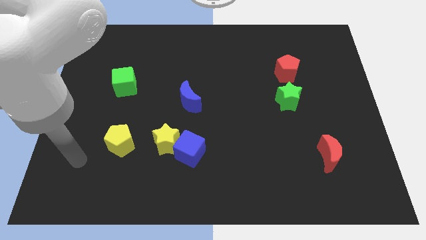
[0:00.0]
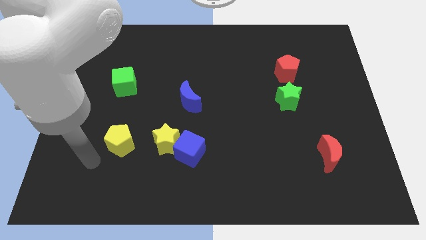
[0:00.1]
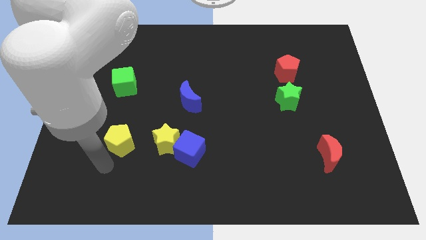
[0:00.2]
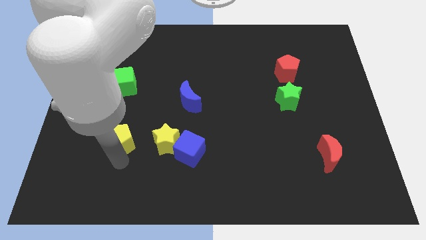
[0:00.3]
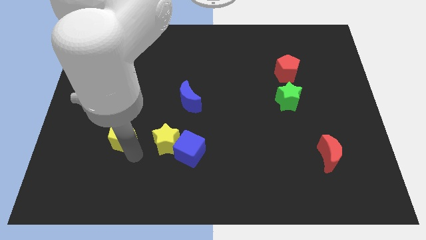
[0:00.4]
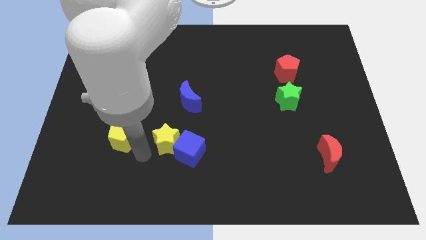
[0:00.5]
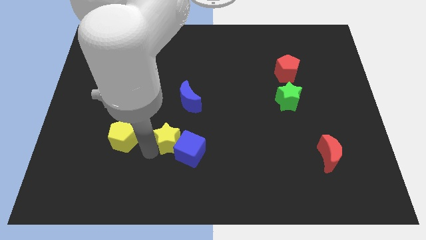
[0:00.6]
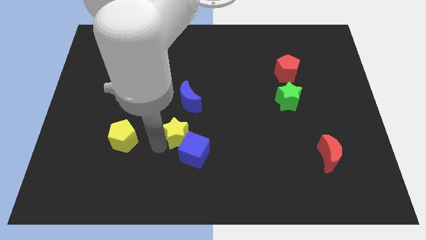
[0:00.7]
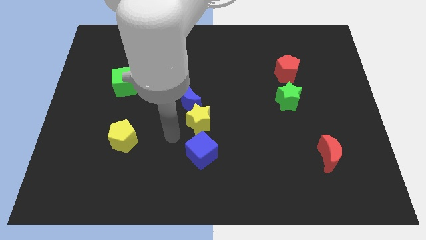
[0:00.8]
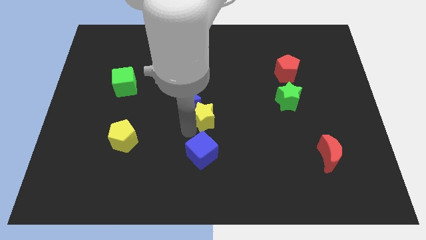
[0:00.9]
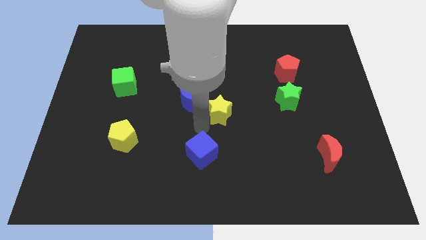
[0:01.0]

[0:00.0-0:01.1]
separate the blue cube from the yellow star

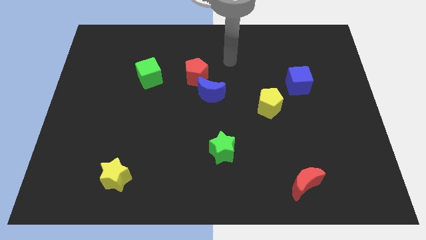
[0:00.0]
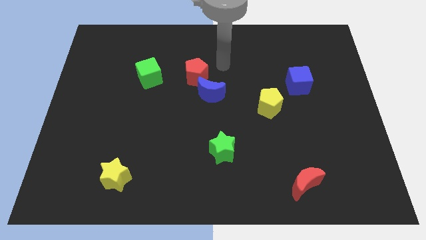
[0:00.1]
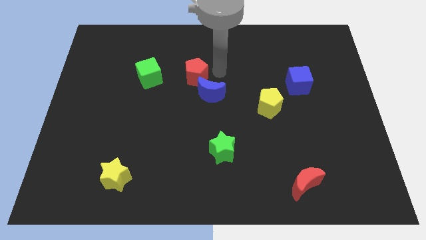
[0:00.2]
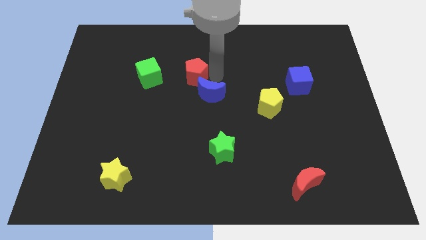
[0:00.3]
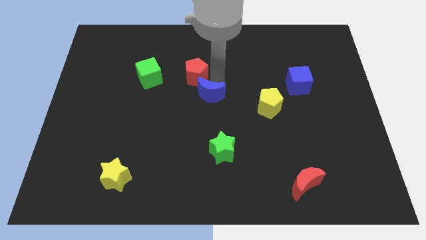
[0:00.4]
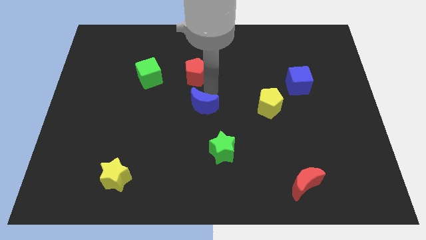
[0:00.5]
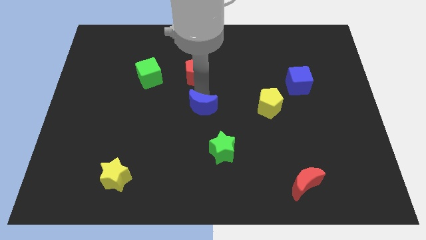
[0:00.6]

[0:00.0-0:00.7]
separate the red pentagon from the blue moon

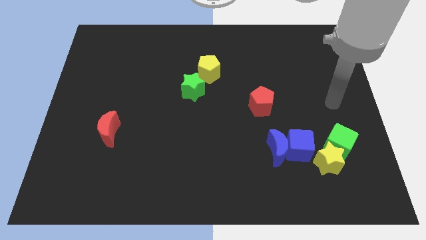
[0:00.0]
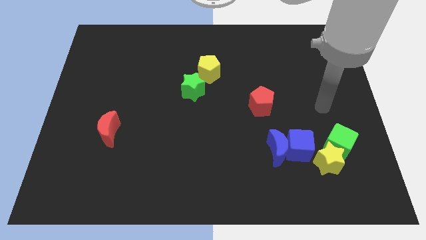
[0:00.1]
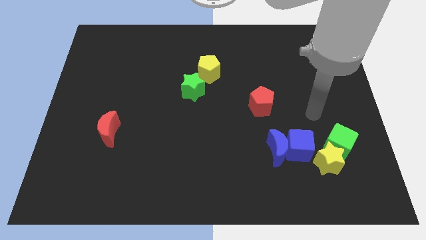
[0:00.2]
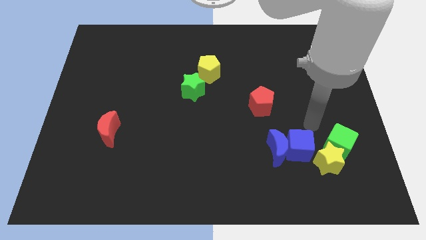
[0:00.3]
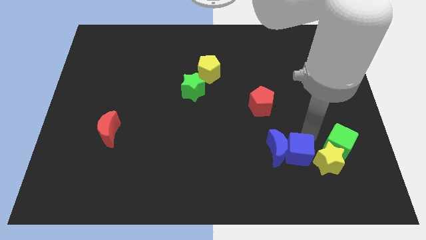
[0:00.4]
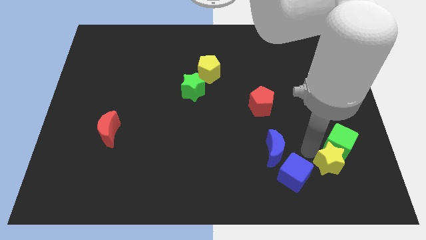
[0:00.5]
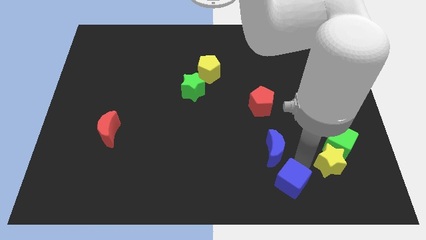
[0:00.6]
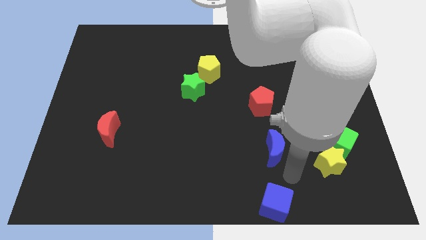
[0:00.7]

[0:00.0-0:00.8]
move the blue moon away from the blue cube

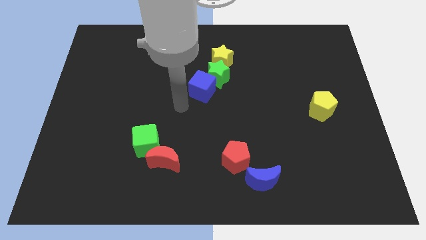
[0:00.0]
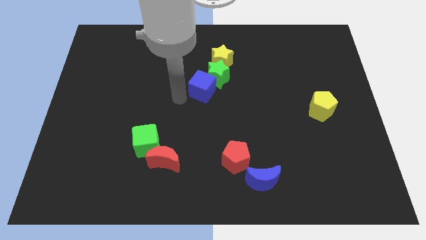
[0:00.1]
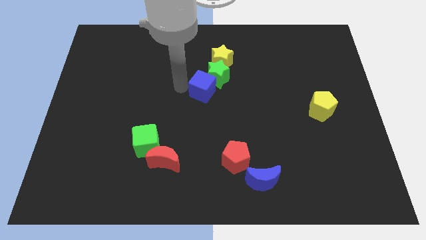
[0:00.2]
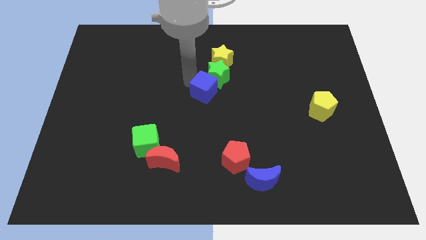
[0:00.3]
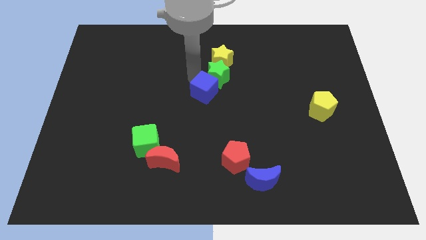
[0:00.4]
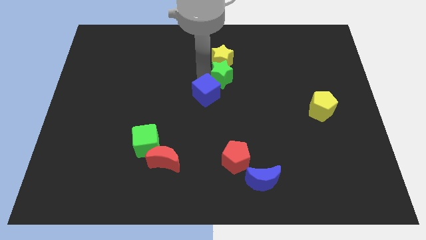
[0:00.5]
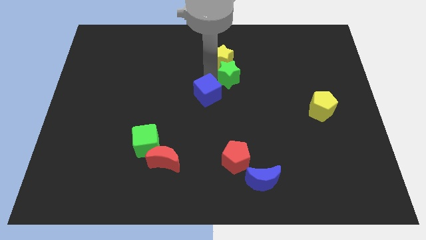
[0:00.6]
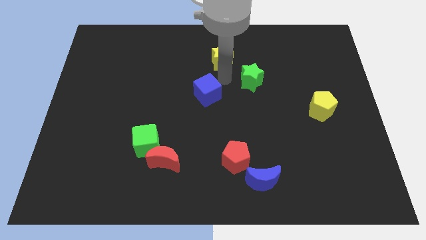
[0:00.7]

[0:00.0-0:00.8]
pull the blue cube apart from the green star

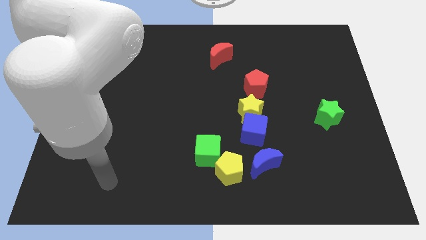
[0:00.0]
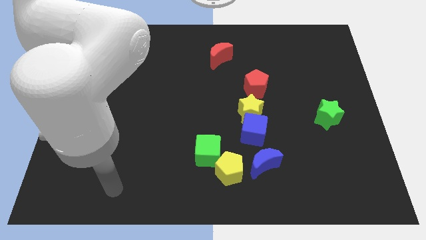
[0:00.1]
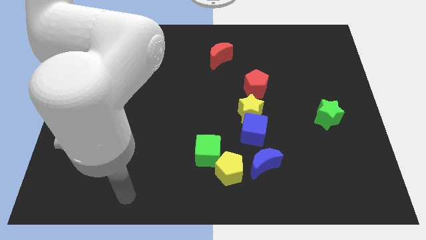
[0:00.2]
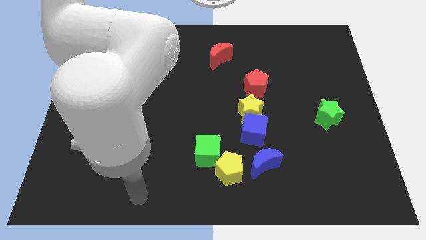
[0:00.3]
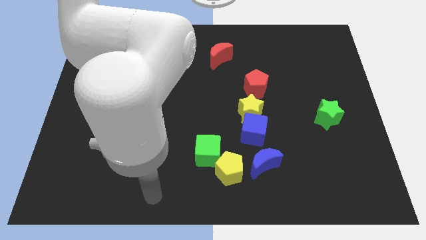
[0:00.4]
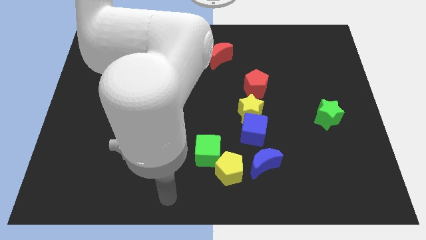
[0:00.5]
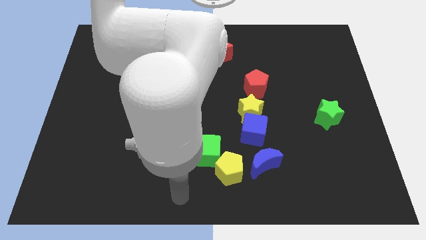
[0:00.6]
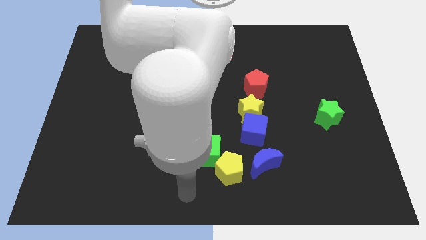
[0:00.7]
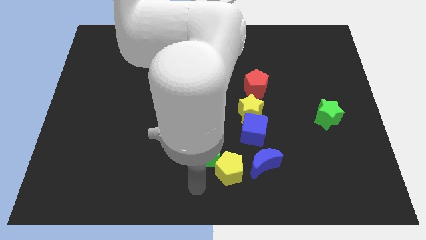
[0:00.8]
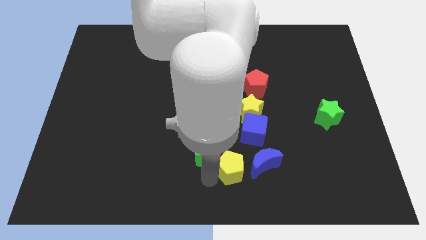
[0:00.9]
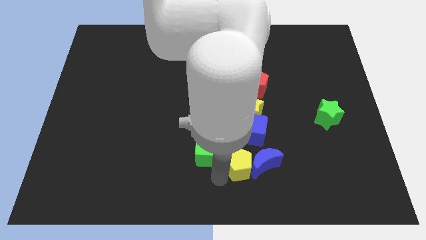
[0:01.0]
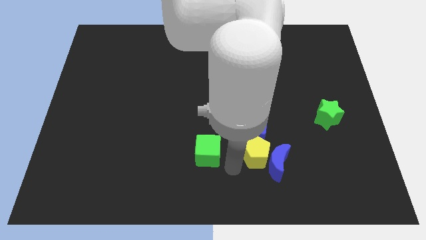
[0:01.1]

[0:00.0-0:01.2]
move the green cube away from the yellow pentagon

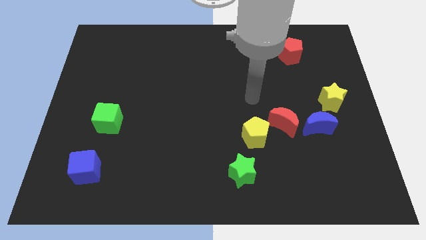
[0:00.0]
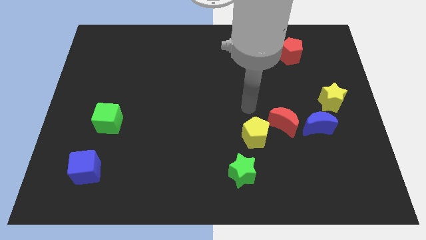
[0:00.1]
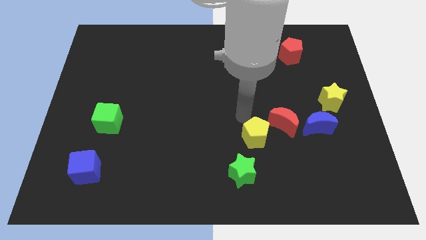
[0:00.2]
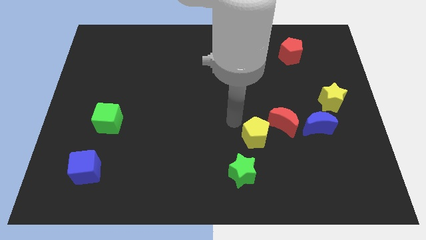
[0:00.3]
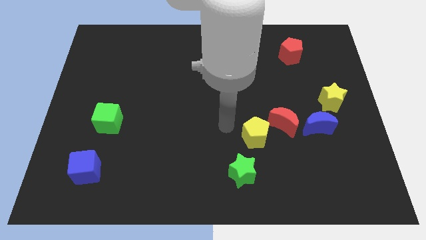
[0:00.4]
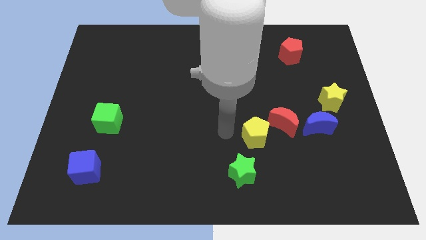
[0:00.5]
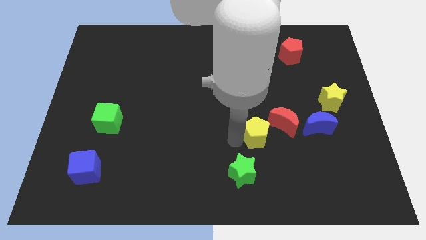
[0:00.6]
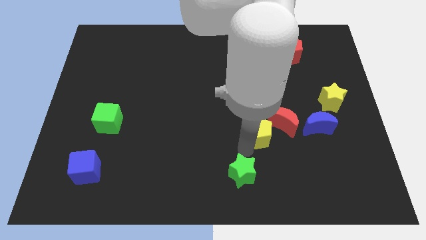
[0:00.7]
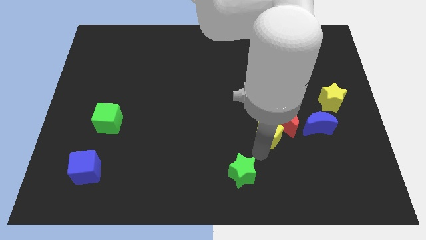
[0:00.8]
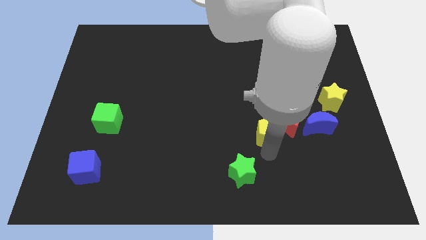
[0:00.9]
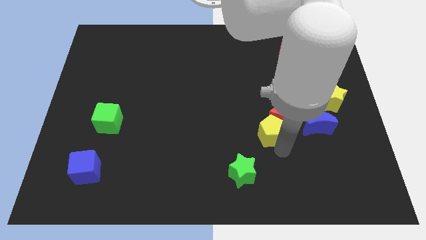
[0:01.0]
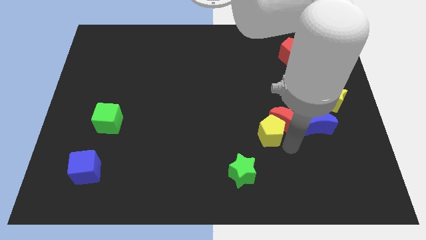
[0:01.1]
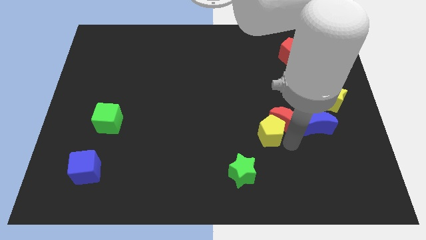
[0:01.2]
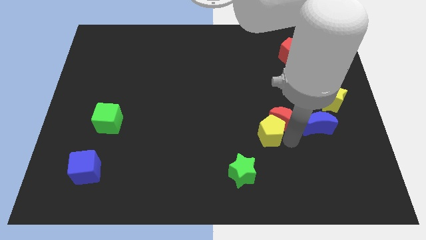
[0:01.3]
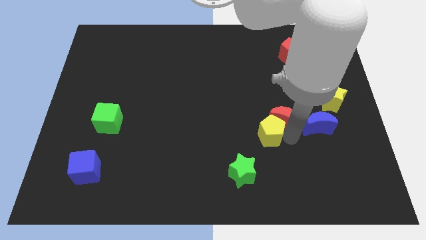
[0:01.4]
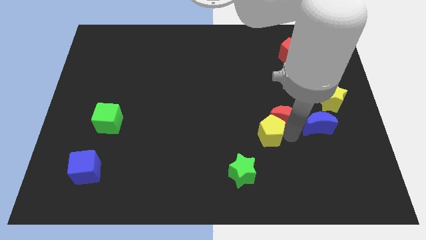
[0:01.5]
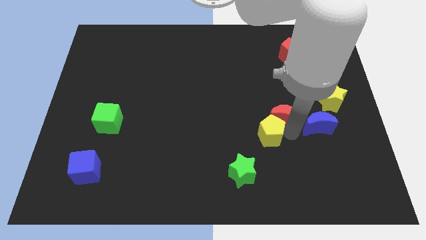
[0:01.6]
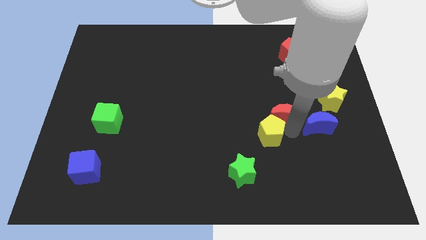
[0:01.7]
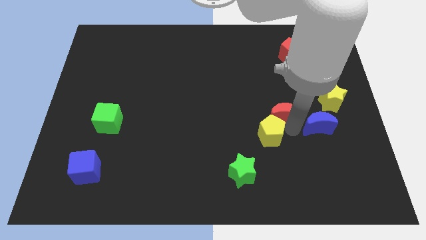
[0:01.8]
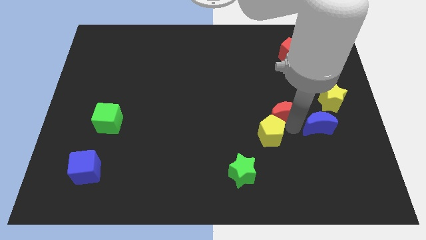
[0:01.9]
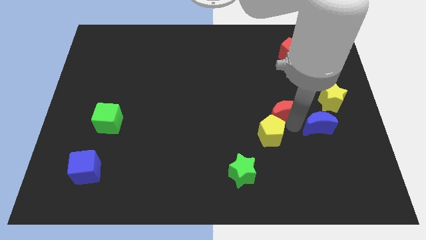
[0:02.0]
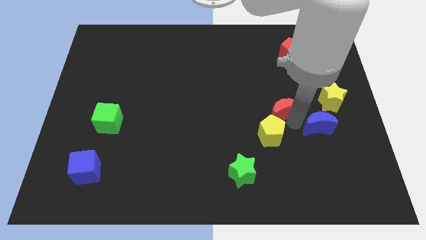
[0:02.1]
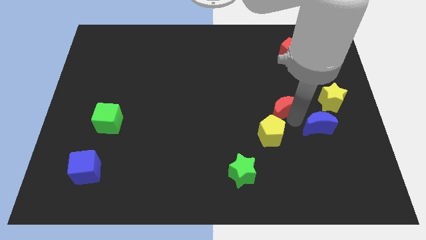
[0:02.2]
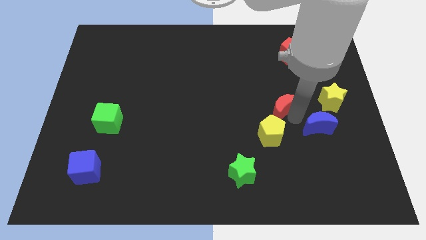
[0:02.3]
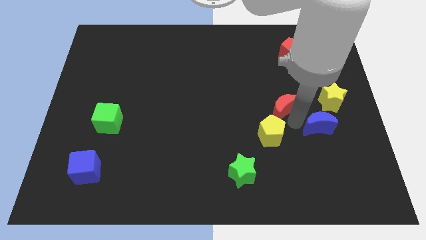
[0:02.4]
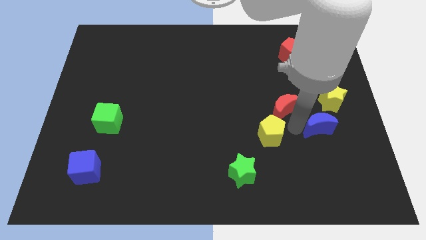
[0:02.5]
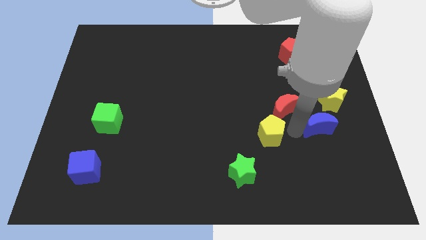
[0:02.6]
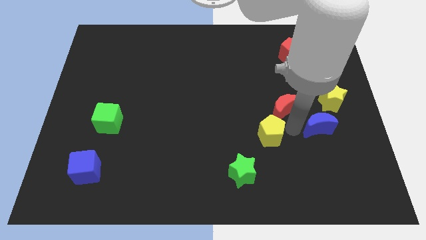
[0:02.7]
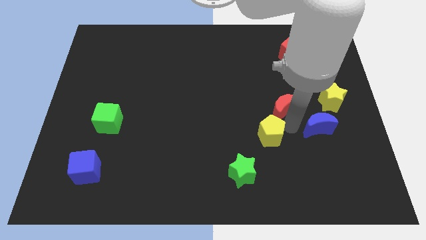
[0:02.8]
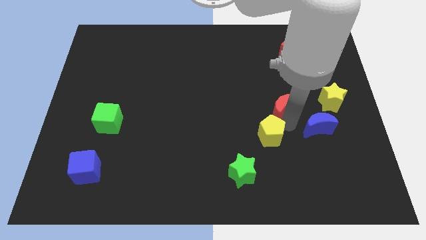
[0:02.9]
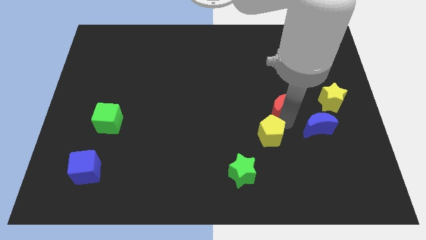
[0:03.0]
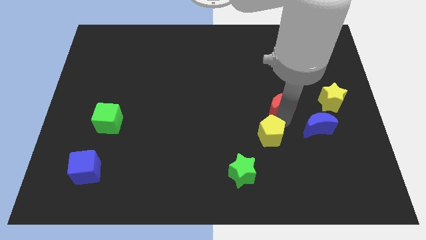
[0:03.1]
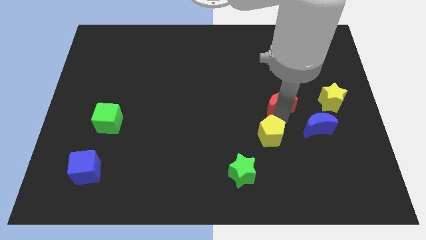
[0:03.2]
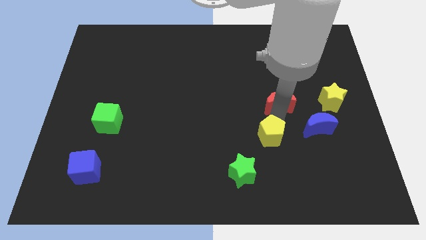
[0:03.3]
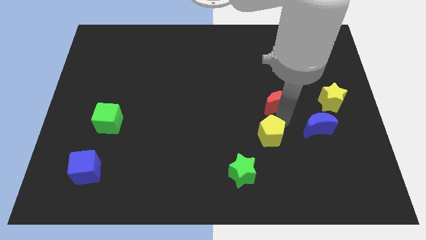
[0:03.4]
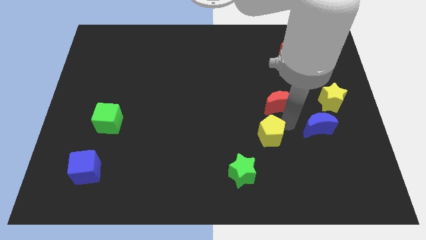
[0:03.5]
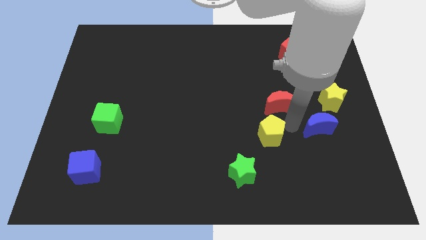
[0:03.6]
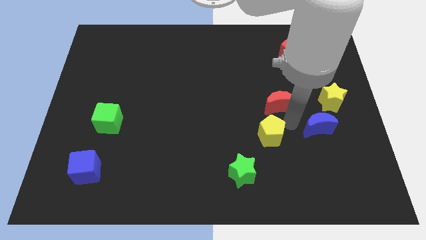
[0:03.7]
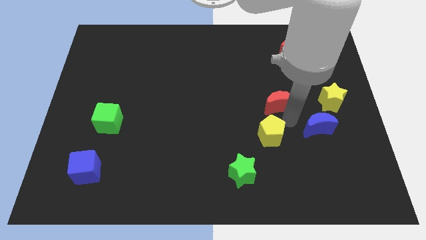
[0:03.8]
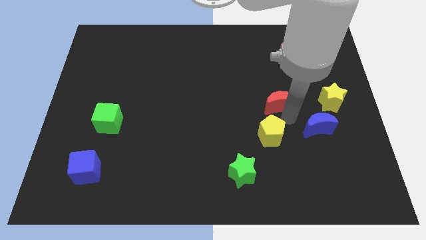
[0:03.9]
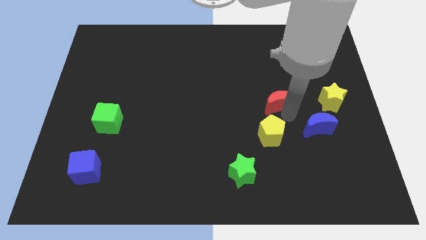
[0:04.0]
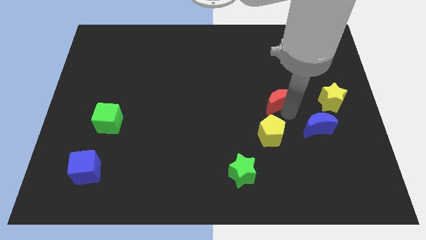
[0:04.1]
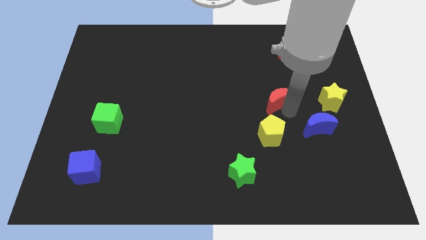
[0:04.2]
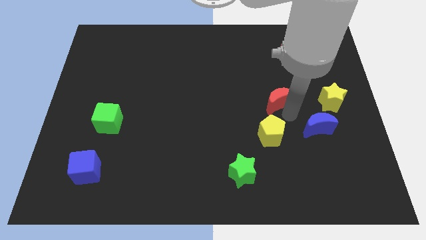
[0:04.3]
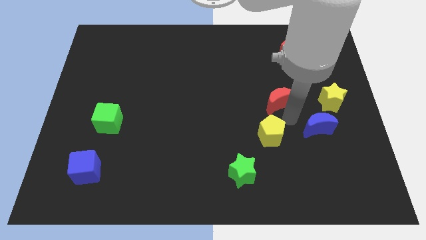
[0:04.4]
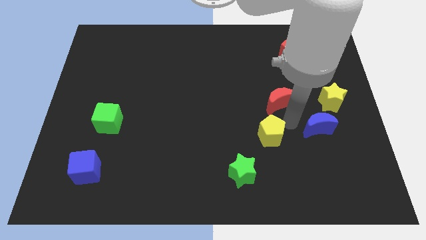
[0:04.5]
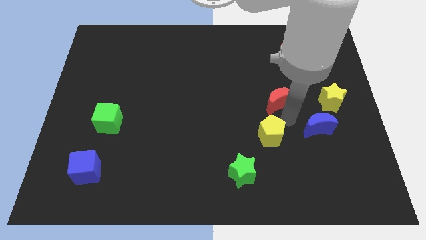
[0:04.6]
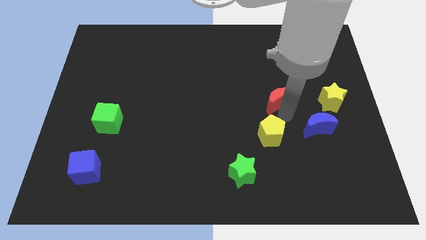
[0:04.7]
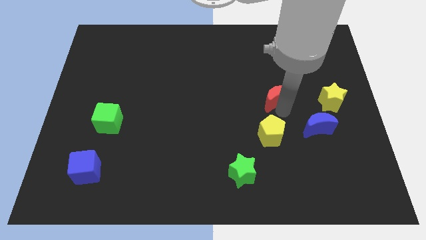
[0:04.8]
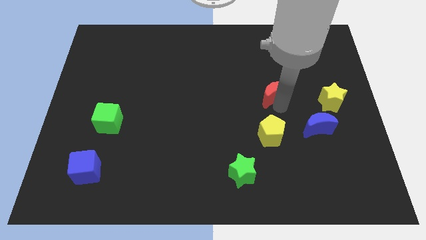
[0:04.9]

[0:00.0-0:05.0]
move the red moon away from the blue moon and yellow pentagon
